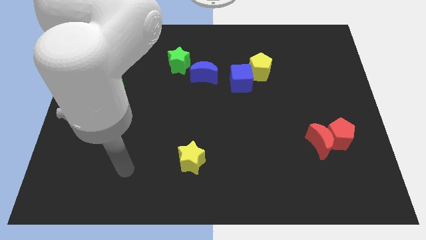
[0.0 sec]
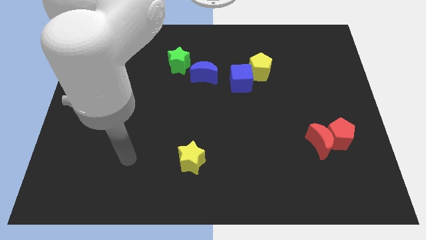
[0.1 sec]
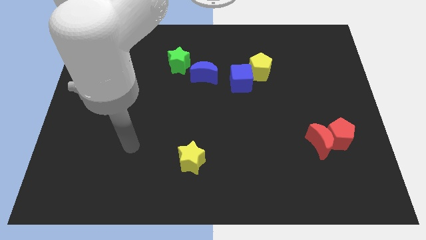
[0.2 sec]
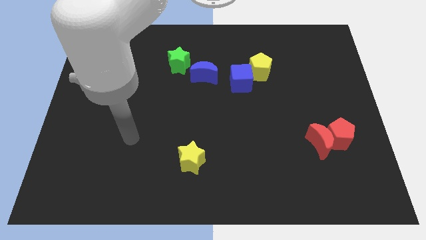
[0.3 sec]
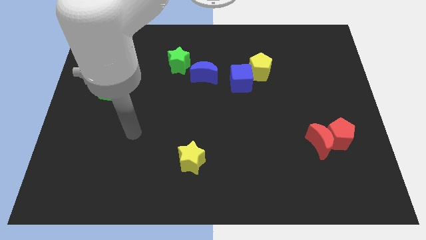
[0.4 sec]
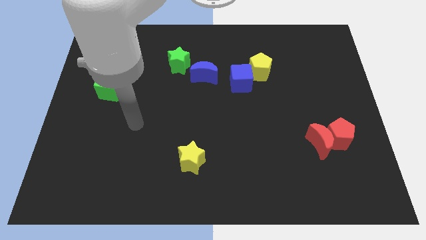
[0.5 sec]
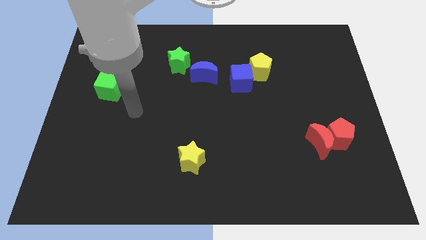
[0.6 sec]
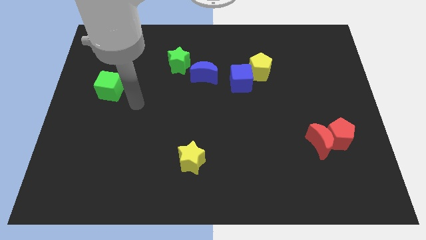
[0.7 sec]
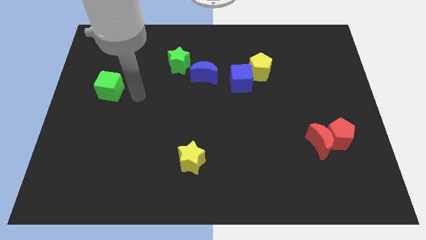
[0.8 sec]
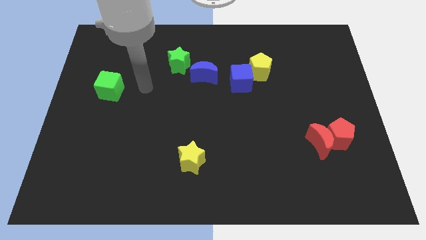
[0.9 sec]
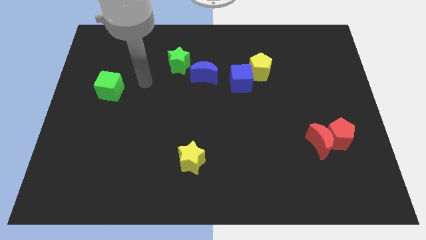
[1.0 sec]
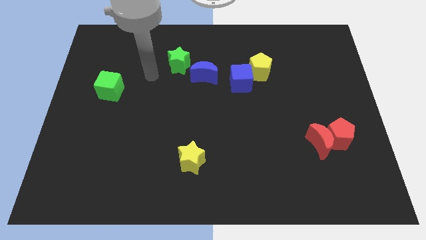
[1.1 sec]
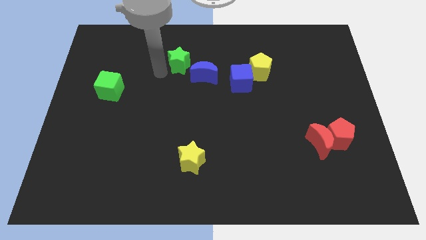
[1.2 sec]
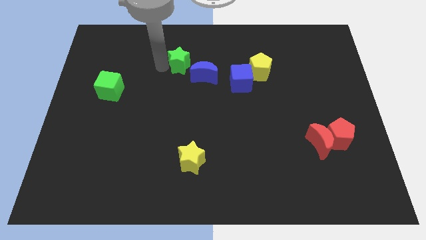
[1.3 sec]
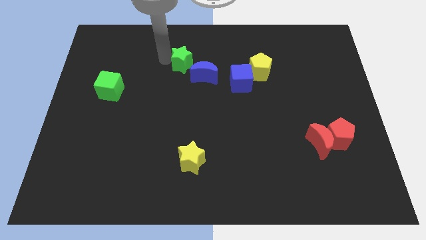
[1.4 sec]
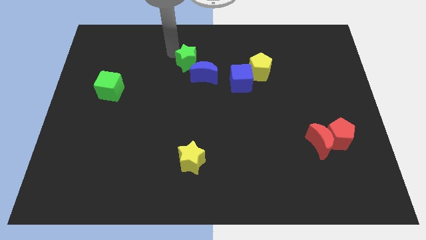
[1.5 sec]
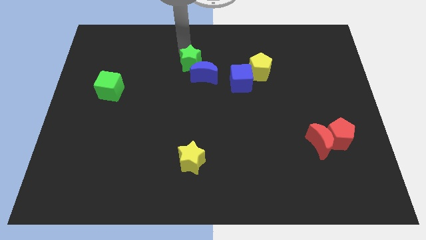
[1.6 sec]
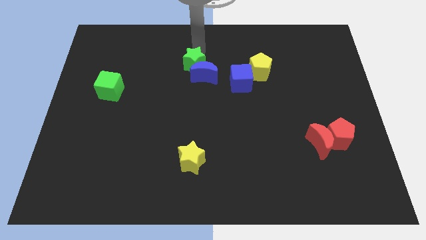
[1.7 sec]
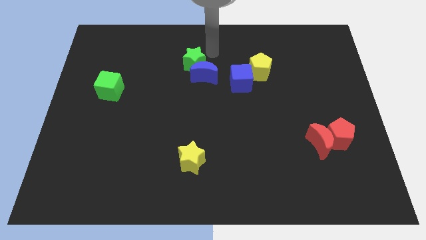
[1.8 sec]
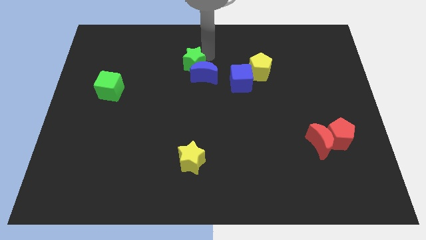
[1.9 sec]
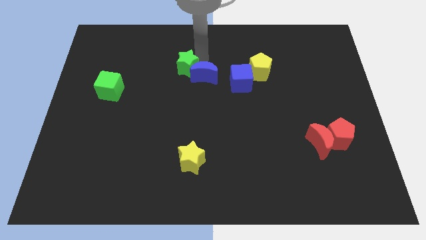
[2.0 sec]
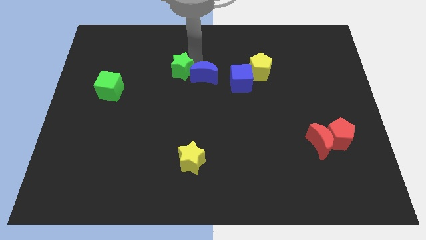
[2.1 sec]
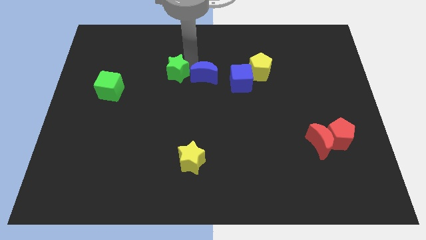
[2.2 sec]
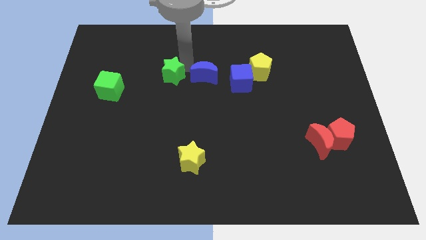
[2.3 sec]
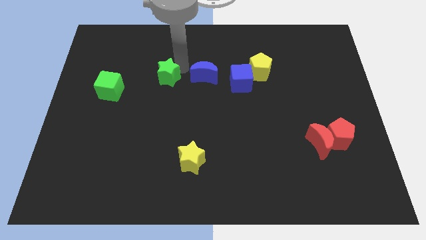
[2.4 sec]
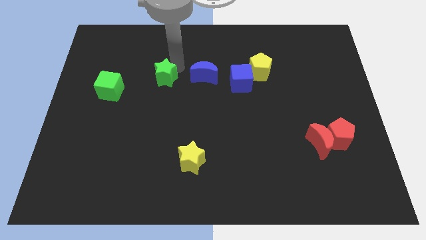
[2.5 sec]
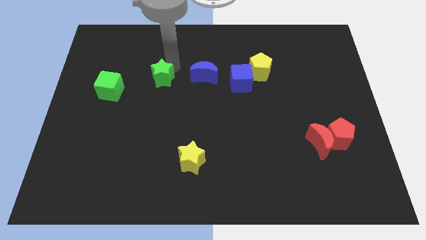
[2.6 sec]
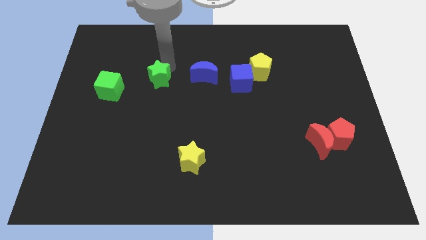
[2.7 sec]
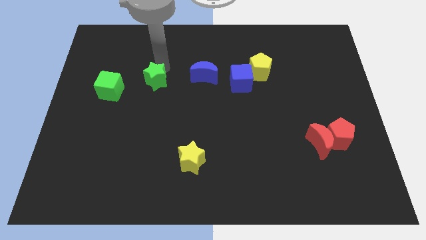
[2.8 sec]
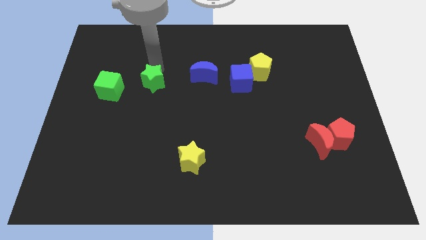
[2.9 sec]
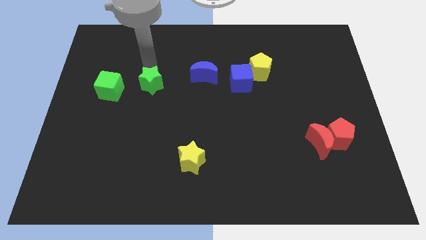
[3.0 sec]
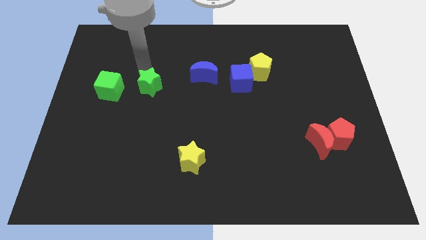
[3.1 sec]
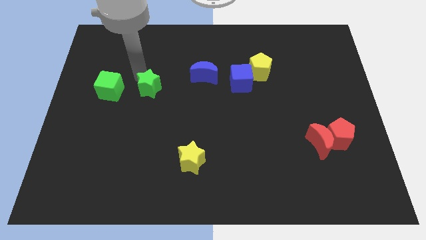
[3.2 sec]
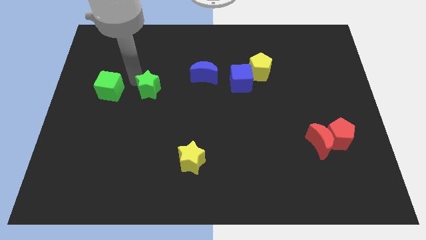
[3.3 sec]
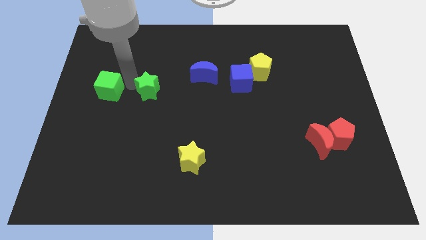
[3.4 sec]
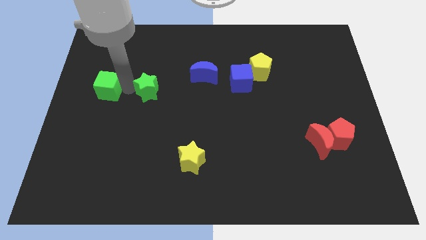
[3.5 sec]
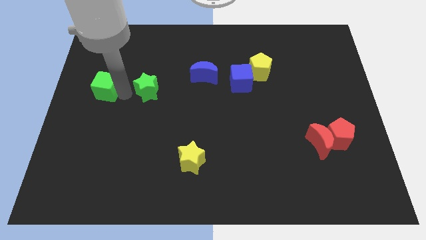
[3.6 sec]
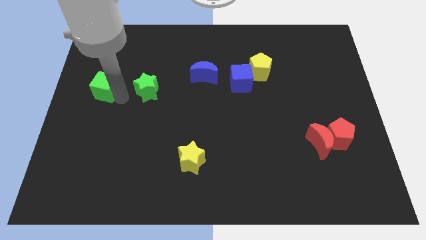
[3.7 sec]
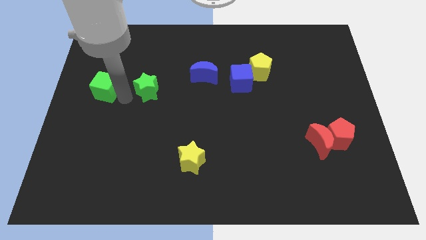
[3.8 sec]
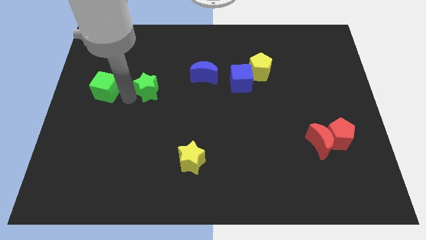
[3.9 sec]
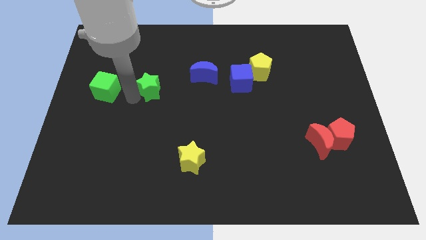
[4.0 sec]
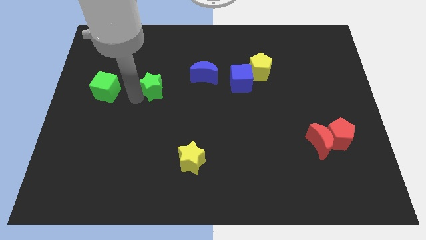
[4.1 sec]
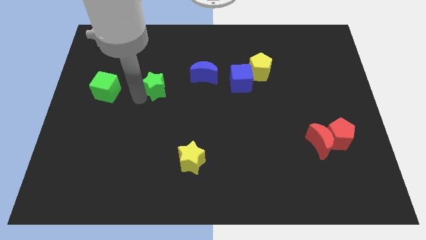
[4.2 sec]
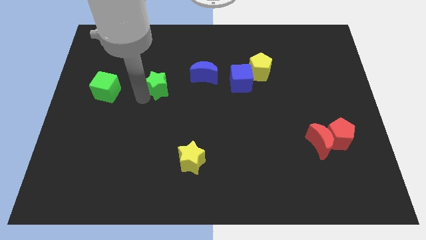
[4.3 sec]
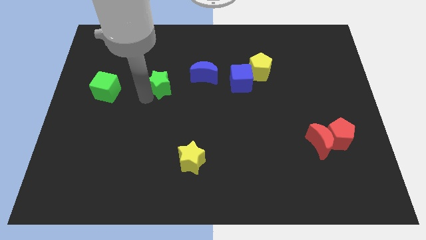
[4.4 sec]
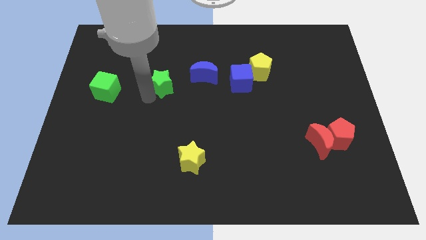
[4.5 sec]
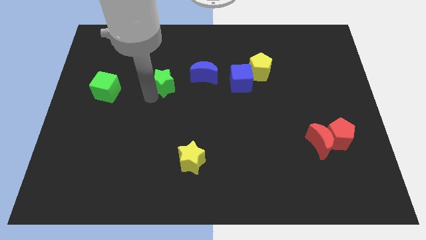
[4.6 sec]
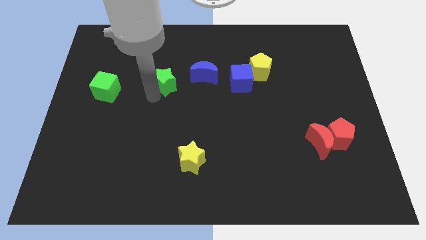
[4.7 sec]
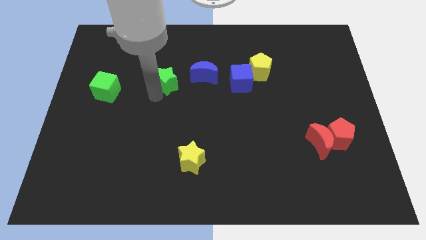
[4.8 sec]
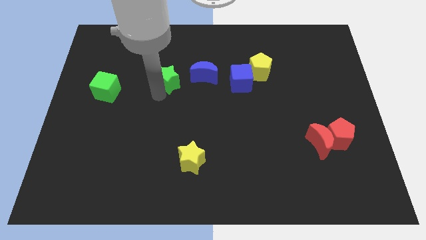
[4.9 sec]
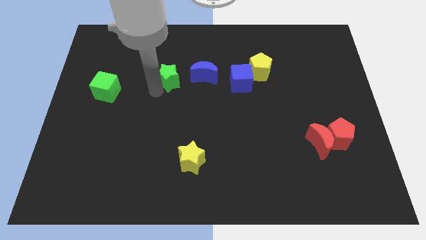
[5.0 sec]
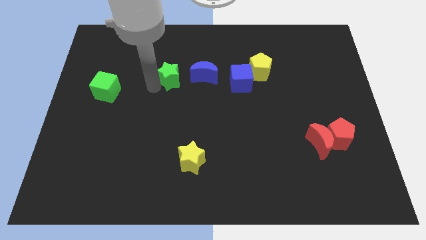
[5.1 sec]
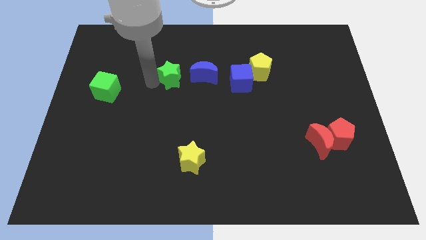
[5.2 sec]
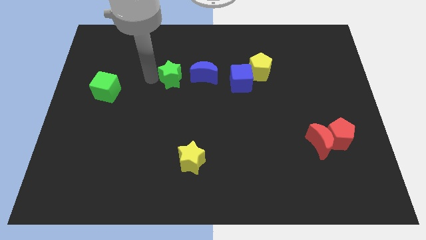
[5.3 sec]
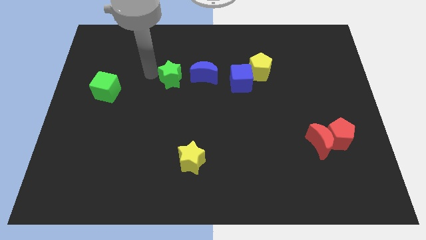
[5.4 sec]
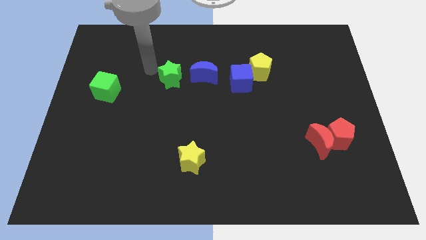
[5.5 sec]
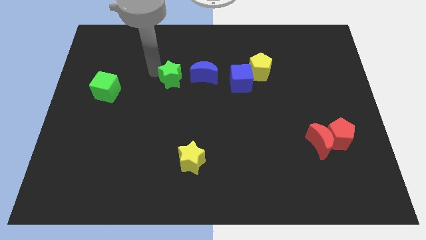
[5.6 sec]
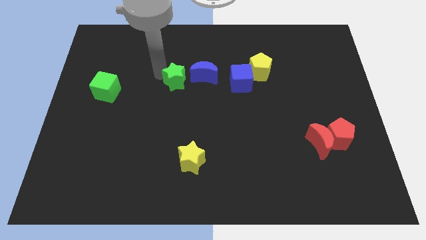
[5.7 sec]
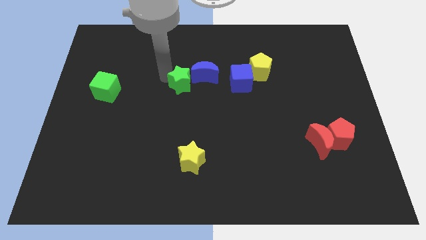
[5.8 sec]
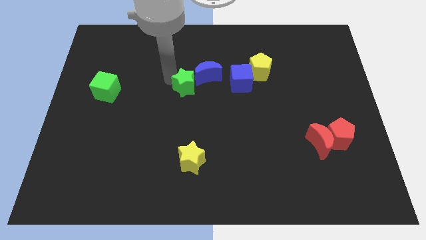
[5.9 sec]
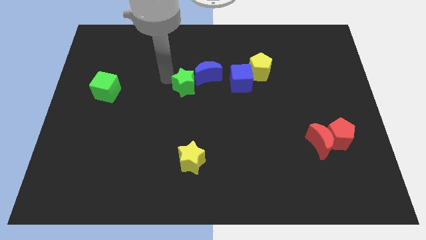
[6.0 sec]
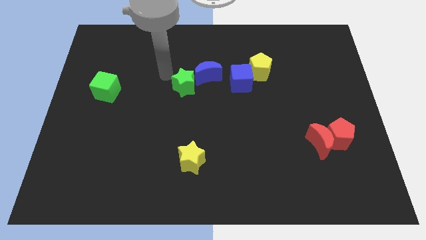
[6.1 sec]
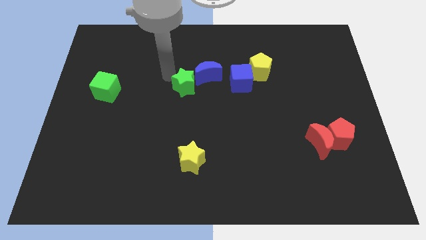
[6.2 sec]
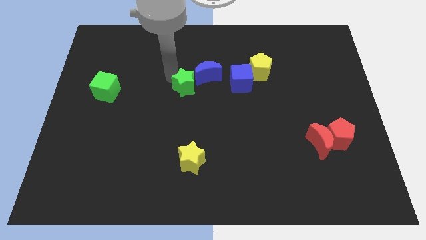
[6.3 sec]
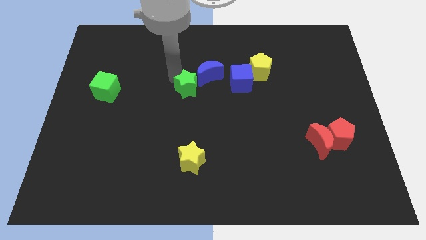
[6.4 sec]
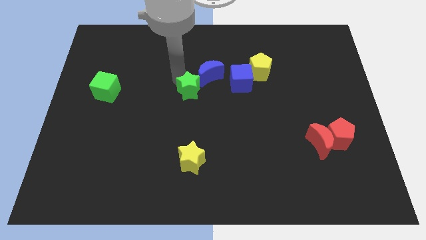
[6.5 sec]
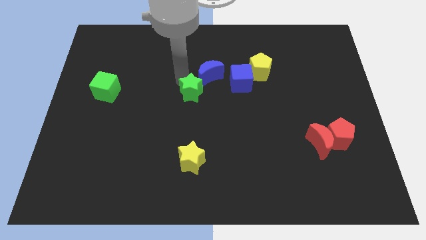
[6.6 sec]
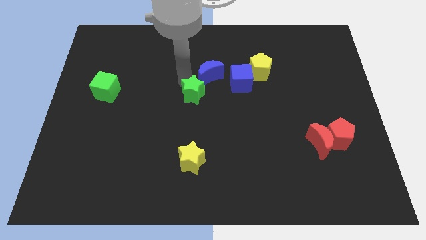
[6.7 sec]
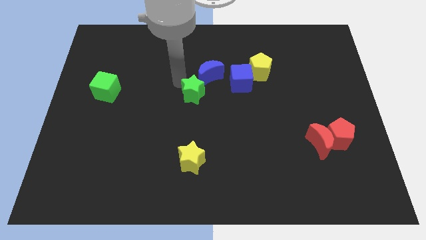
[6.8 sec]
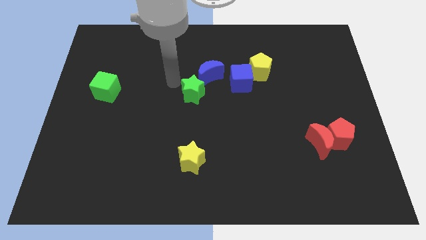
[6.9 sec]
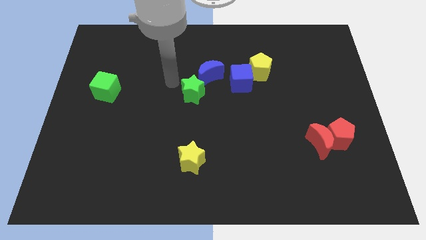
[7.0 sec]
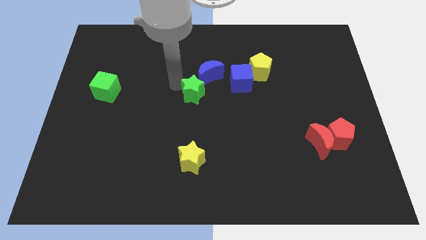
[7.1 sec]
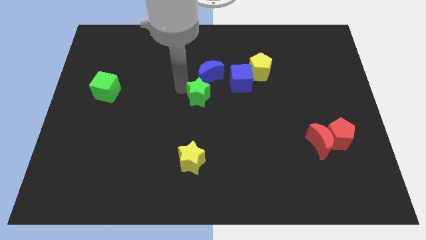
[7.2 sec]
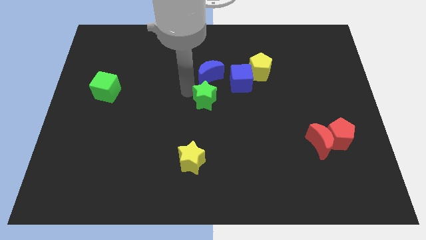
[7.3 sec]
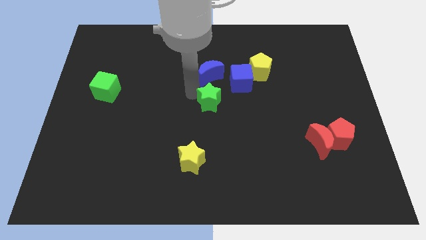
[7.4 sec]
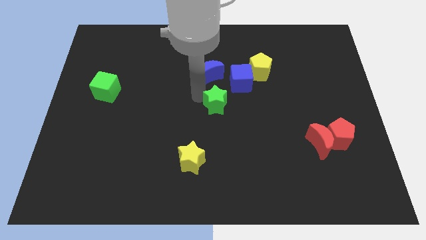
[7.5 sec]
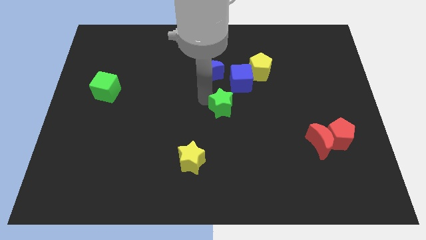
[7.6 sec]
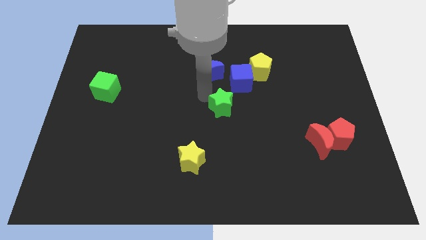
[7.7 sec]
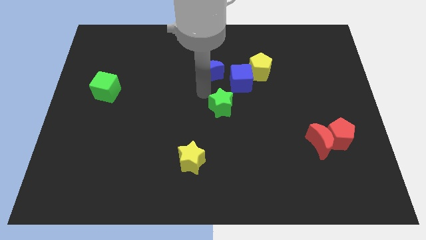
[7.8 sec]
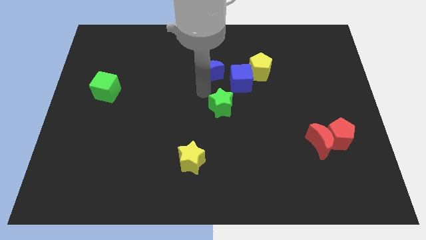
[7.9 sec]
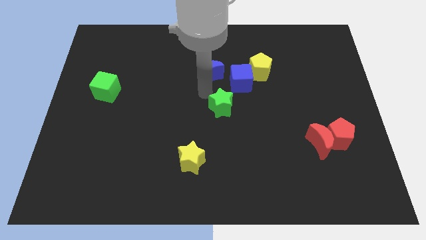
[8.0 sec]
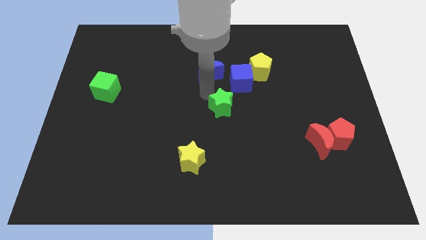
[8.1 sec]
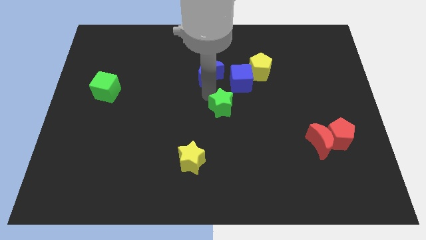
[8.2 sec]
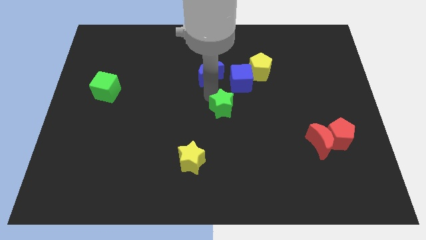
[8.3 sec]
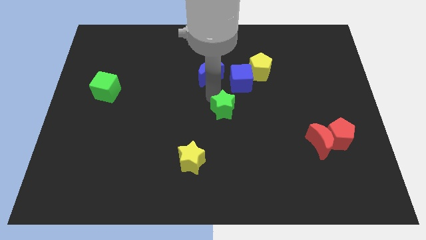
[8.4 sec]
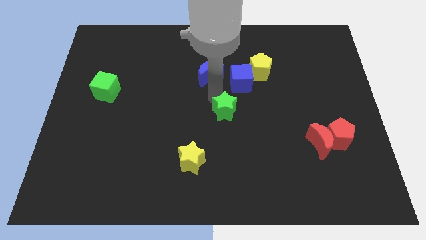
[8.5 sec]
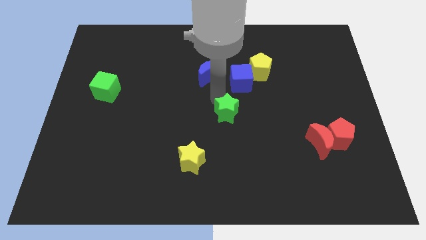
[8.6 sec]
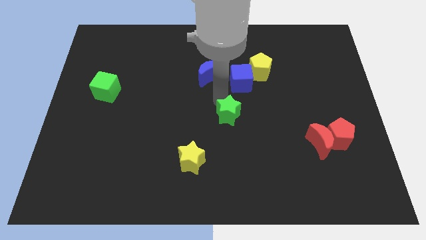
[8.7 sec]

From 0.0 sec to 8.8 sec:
move the green star down and right
